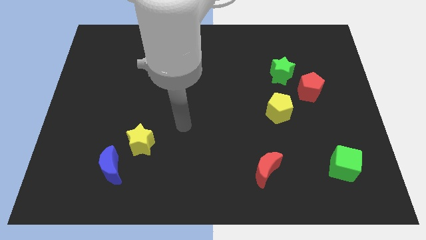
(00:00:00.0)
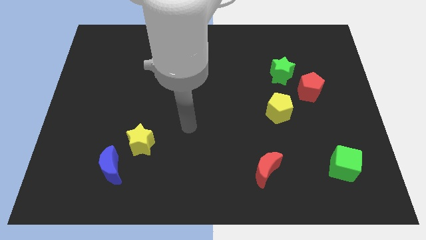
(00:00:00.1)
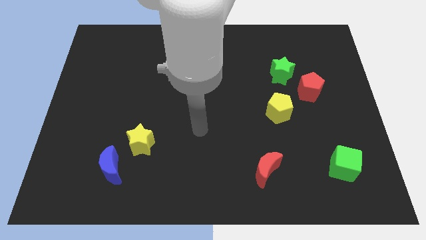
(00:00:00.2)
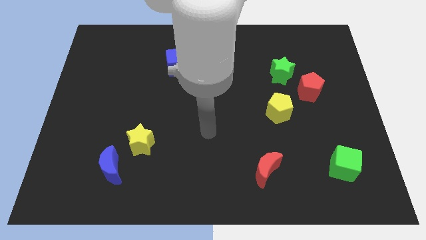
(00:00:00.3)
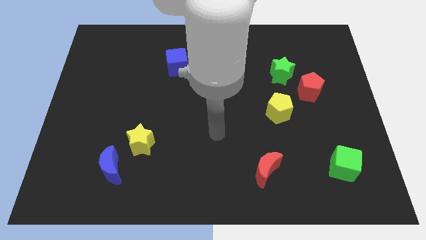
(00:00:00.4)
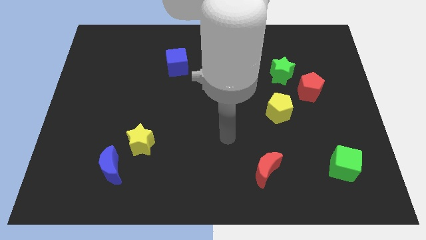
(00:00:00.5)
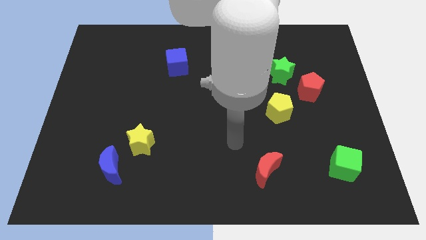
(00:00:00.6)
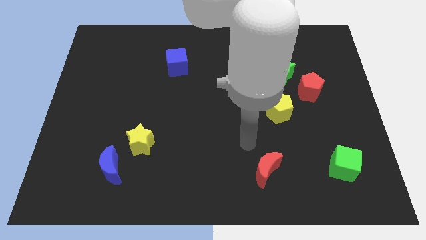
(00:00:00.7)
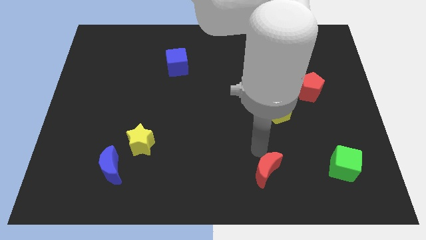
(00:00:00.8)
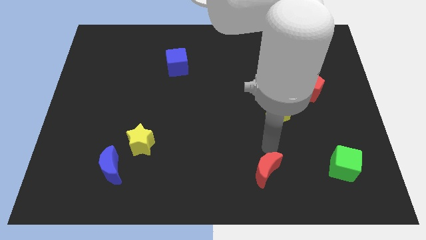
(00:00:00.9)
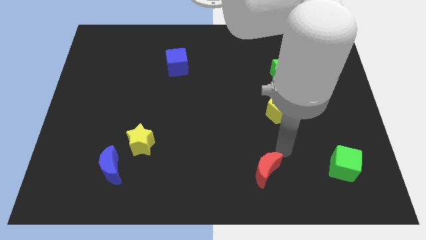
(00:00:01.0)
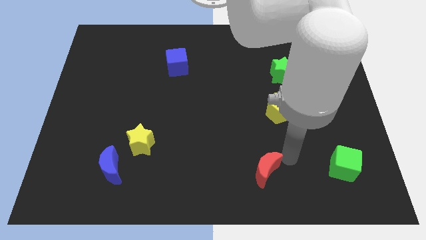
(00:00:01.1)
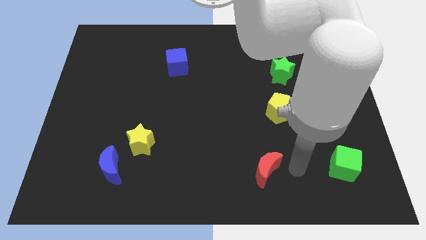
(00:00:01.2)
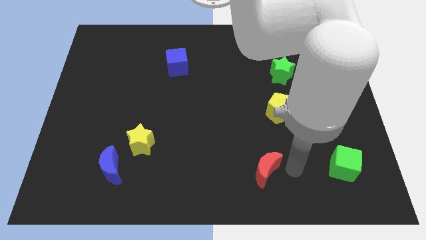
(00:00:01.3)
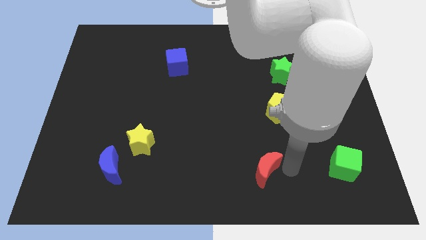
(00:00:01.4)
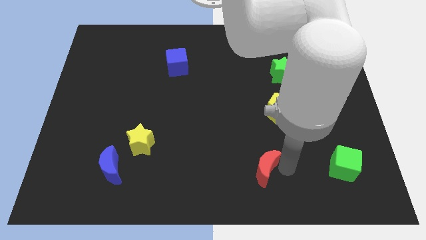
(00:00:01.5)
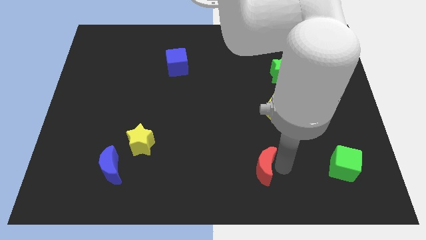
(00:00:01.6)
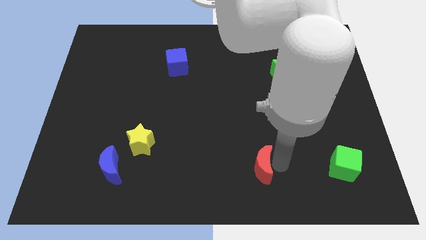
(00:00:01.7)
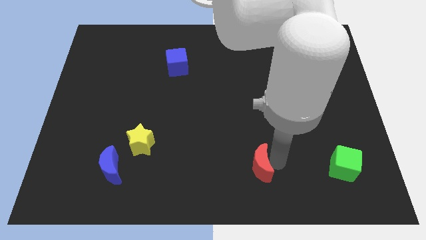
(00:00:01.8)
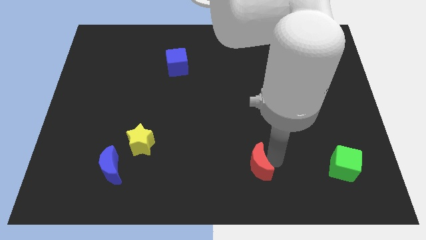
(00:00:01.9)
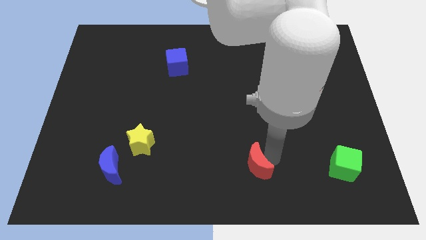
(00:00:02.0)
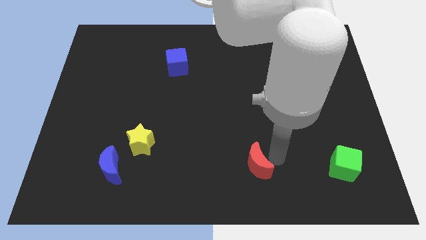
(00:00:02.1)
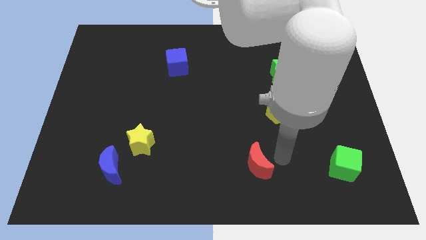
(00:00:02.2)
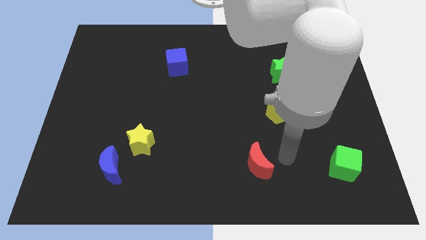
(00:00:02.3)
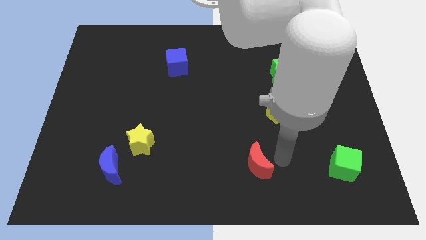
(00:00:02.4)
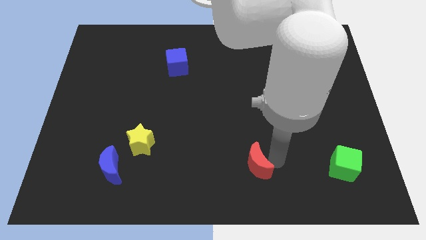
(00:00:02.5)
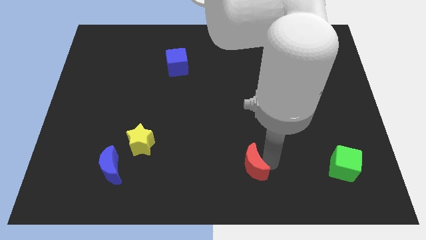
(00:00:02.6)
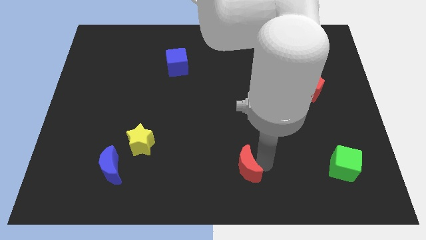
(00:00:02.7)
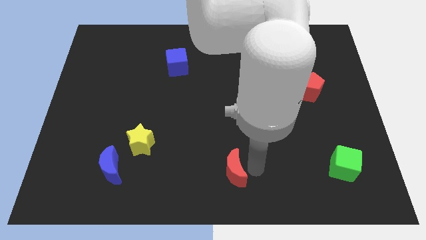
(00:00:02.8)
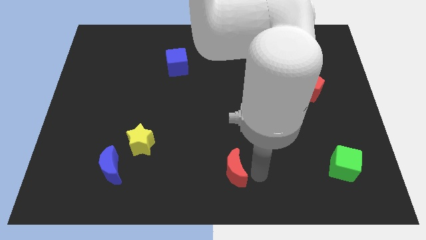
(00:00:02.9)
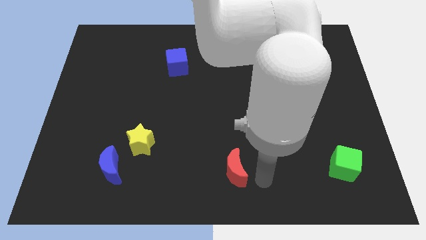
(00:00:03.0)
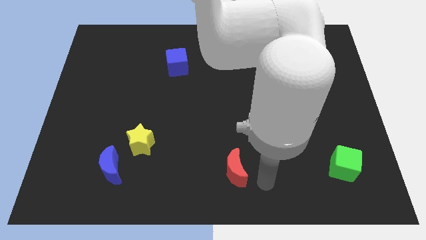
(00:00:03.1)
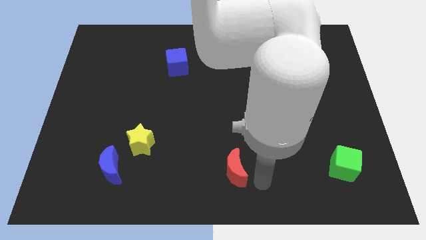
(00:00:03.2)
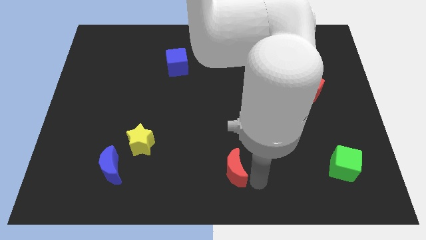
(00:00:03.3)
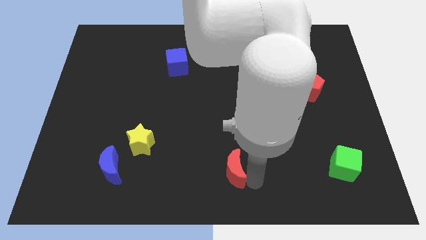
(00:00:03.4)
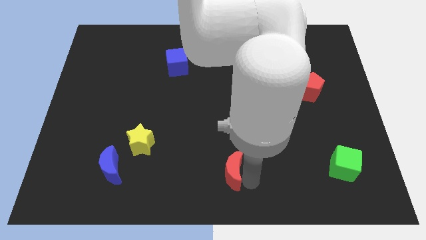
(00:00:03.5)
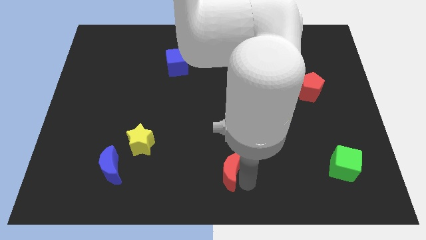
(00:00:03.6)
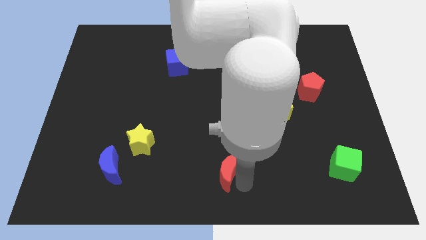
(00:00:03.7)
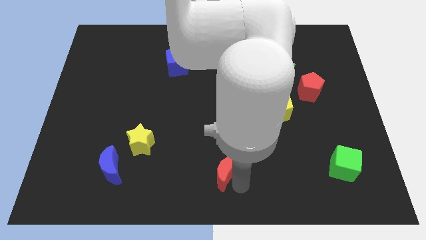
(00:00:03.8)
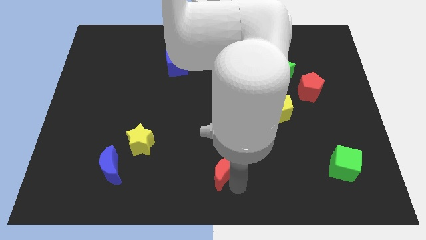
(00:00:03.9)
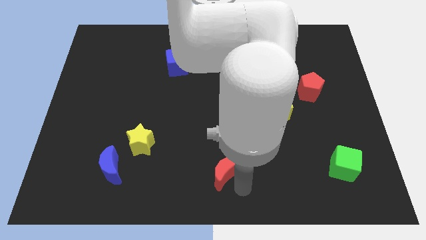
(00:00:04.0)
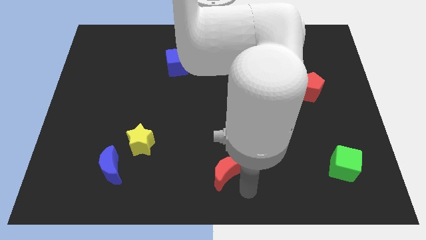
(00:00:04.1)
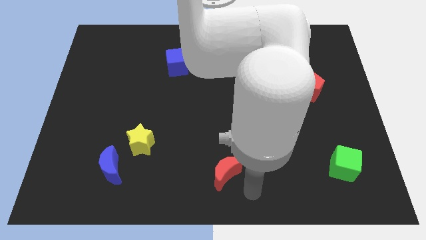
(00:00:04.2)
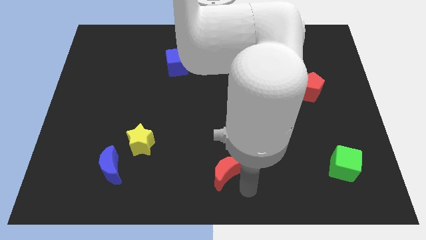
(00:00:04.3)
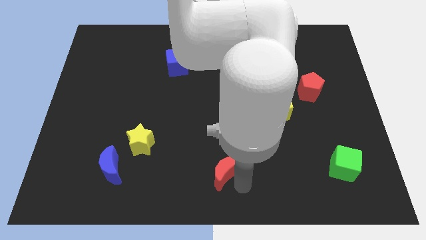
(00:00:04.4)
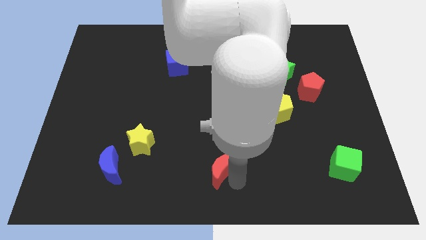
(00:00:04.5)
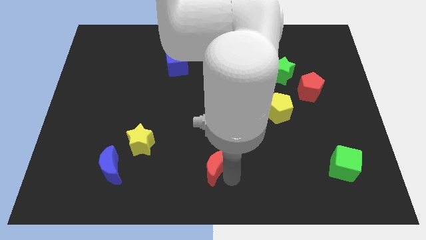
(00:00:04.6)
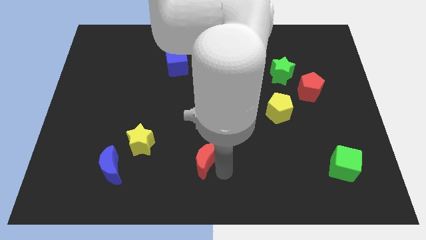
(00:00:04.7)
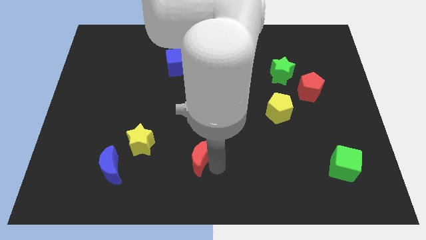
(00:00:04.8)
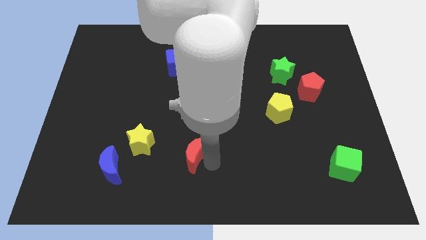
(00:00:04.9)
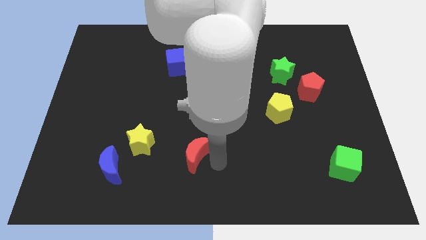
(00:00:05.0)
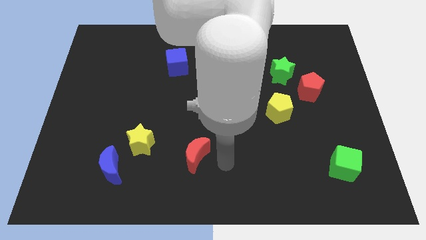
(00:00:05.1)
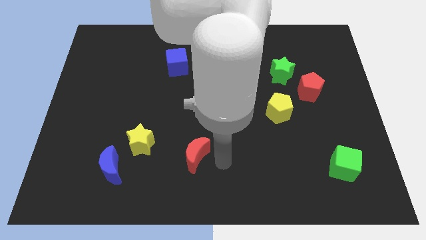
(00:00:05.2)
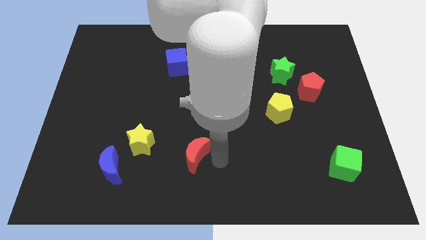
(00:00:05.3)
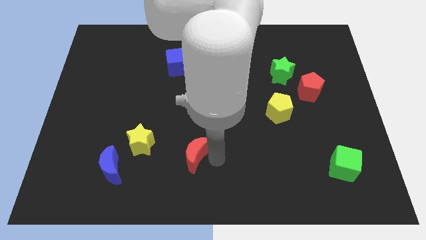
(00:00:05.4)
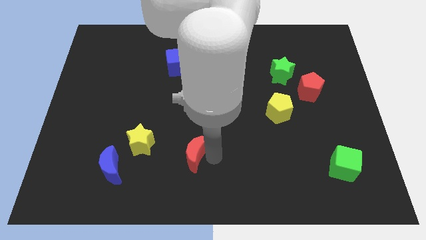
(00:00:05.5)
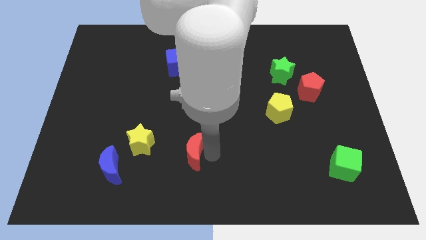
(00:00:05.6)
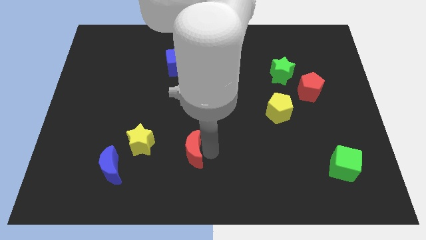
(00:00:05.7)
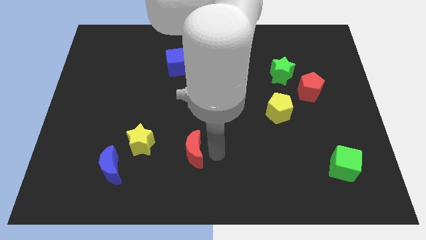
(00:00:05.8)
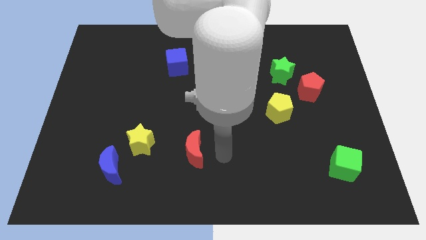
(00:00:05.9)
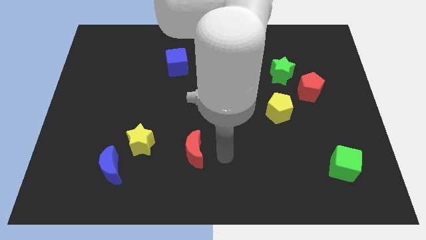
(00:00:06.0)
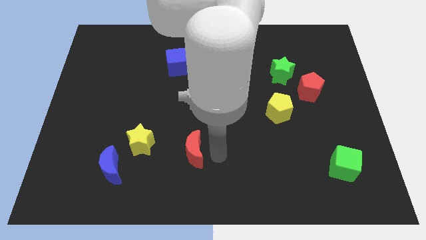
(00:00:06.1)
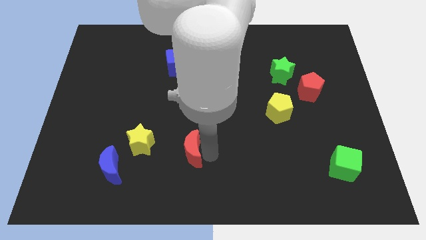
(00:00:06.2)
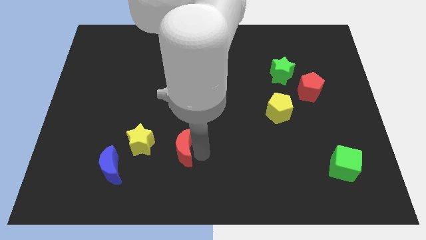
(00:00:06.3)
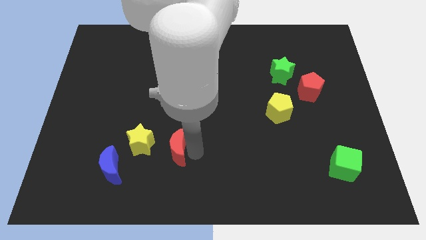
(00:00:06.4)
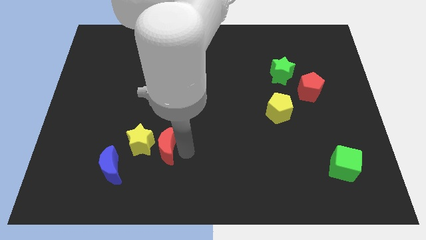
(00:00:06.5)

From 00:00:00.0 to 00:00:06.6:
push the red moon next to the yellow star
